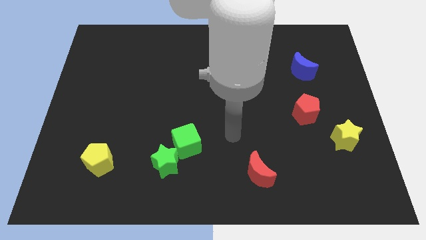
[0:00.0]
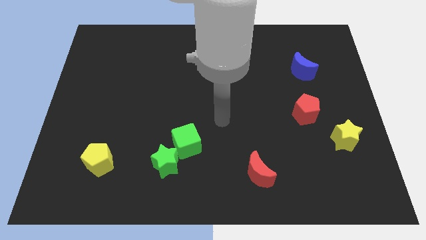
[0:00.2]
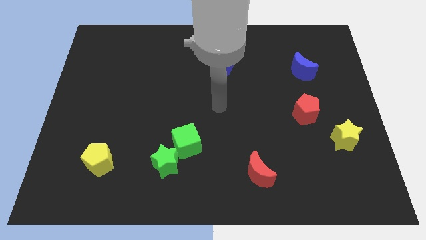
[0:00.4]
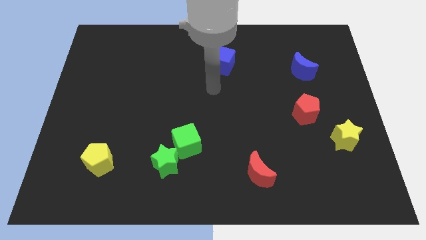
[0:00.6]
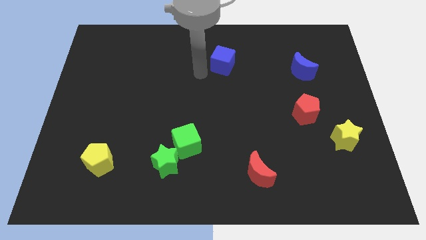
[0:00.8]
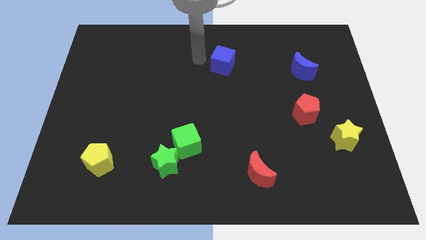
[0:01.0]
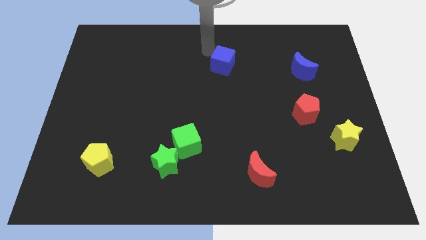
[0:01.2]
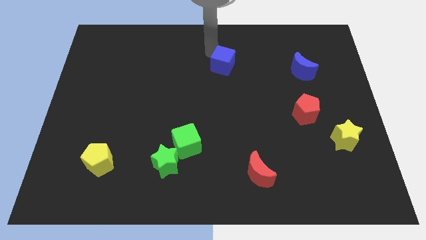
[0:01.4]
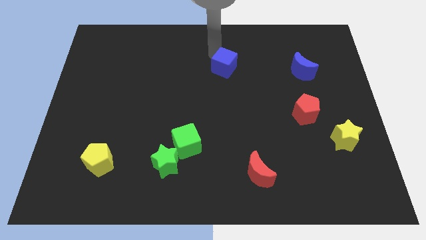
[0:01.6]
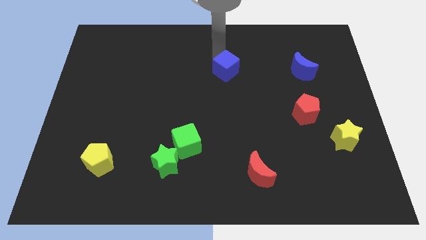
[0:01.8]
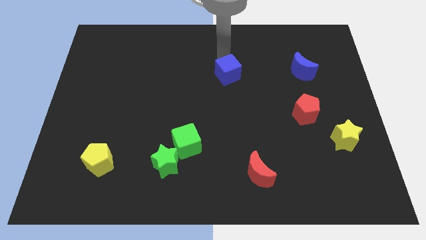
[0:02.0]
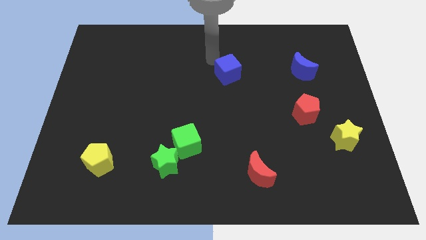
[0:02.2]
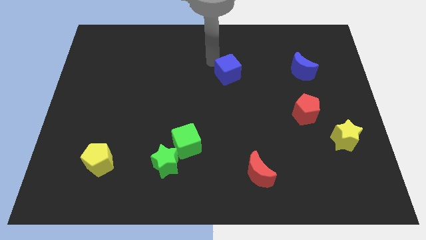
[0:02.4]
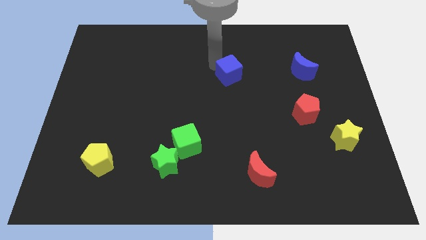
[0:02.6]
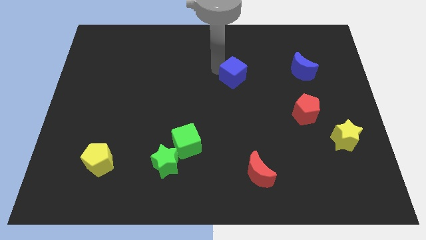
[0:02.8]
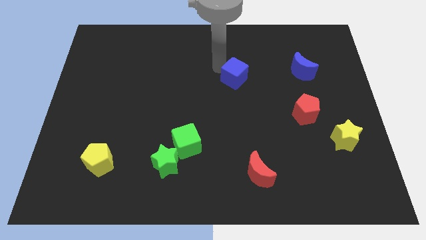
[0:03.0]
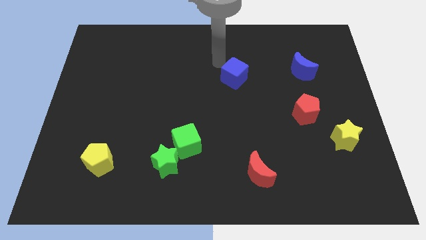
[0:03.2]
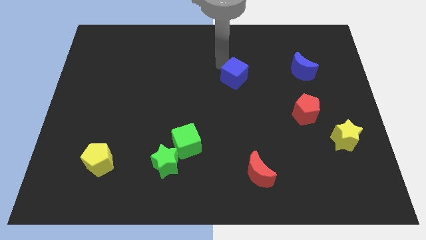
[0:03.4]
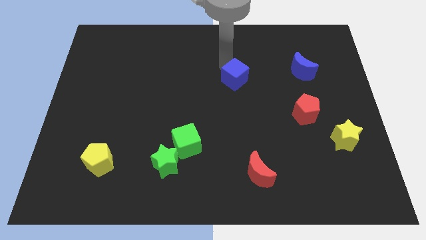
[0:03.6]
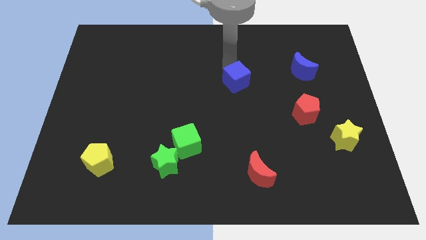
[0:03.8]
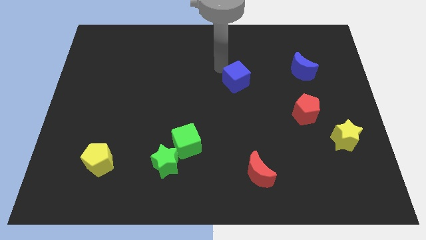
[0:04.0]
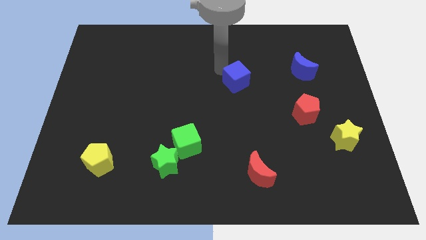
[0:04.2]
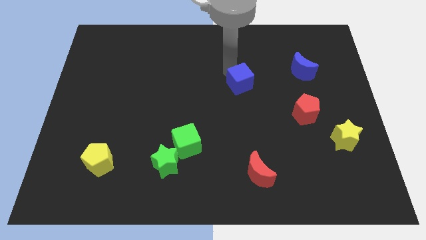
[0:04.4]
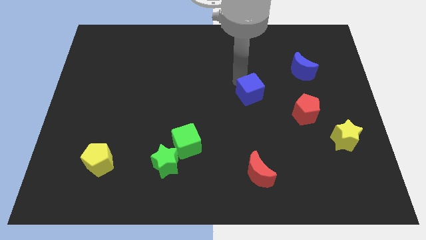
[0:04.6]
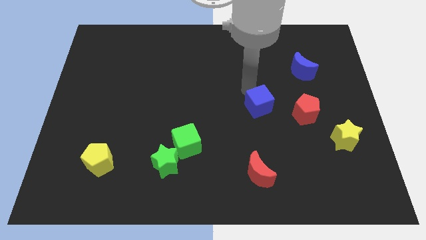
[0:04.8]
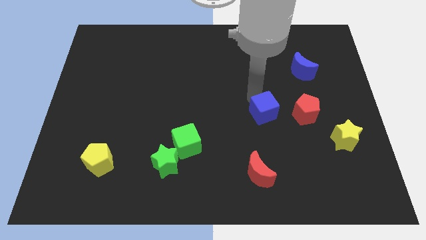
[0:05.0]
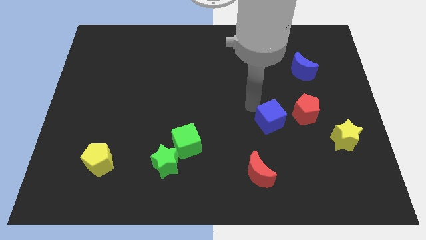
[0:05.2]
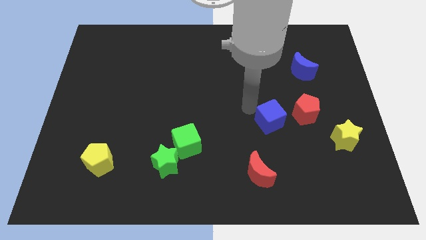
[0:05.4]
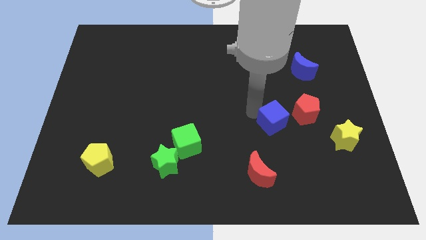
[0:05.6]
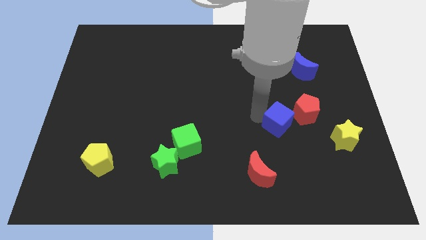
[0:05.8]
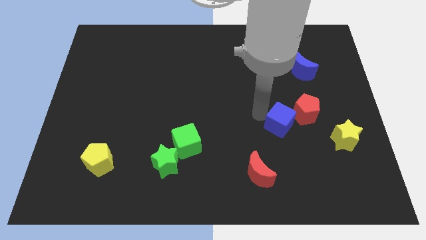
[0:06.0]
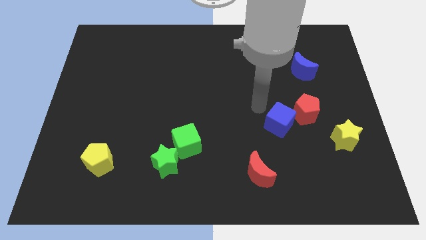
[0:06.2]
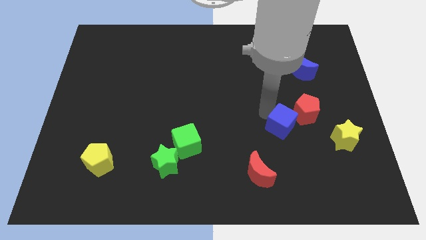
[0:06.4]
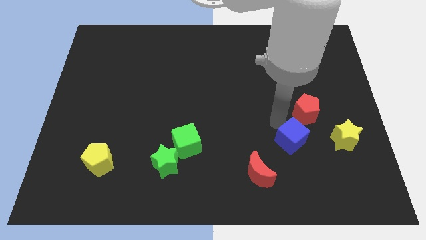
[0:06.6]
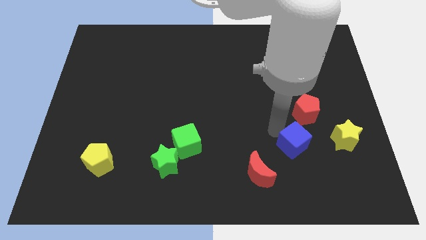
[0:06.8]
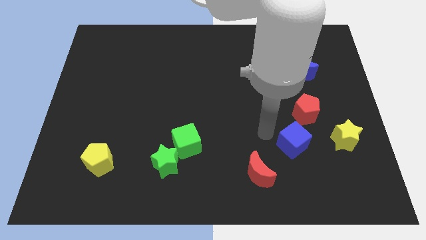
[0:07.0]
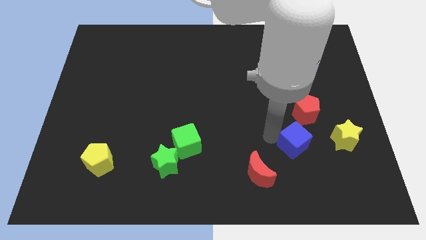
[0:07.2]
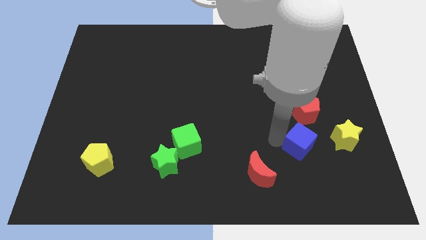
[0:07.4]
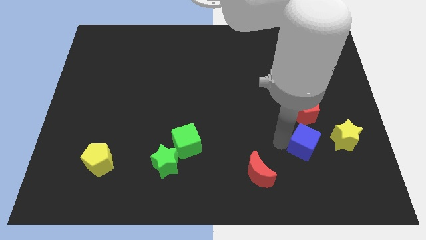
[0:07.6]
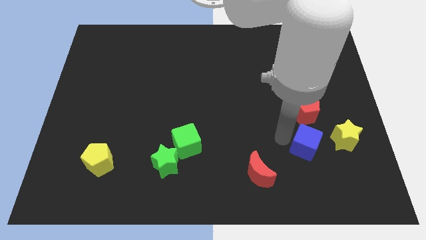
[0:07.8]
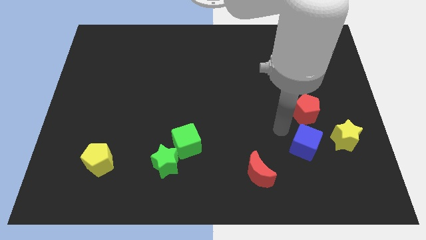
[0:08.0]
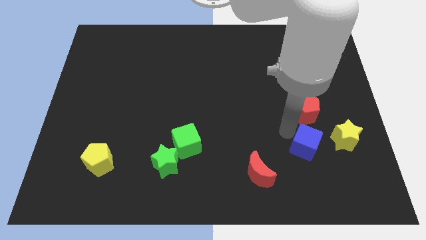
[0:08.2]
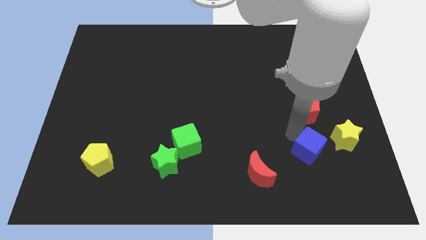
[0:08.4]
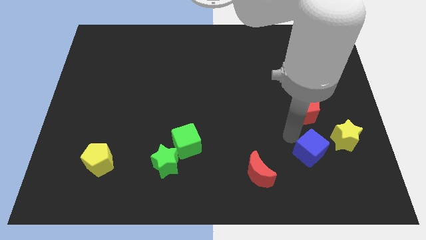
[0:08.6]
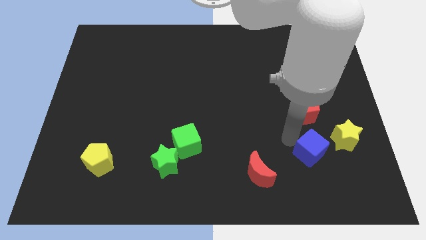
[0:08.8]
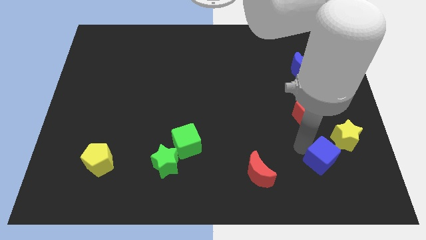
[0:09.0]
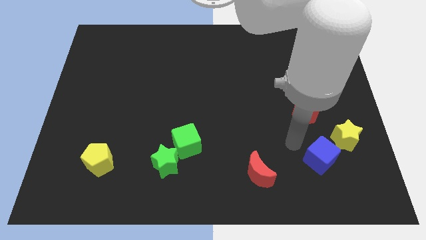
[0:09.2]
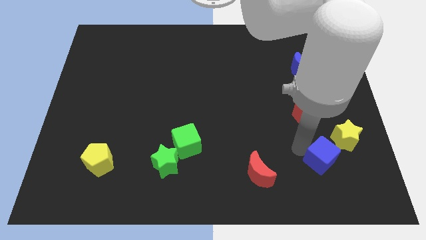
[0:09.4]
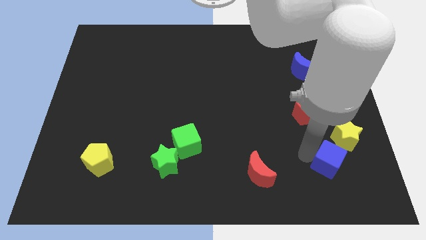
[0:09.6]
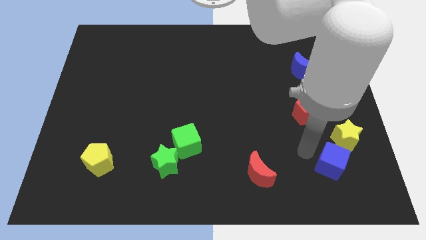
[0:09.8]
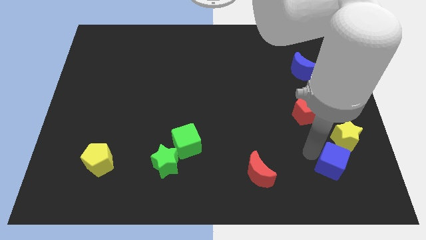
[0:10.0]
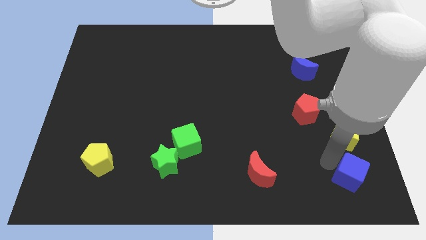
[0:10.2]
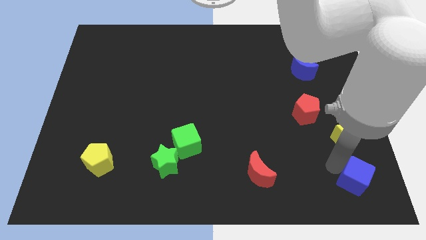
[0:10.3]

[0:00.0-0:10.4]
put the blue cube to the lower right corner

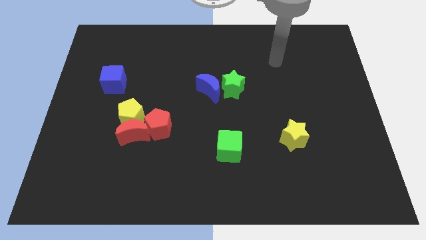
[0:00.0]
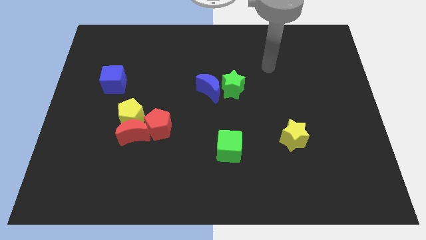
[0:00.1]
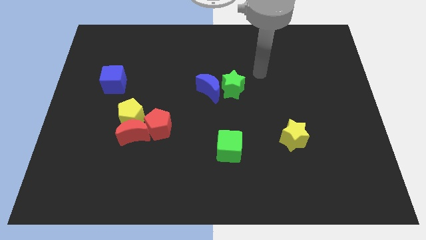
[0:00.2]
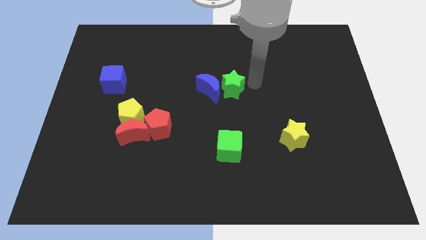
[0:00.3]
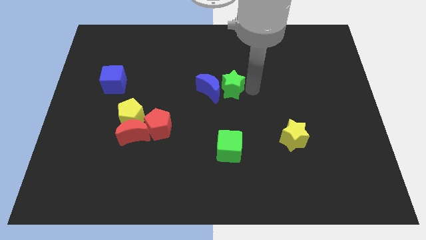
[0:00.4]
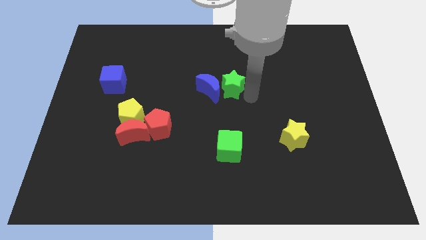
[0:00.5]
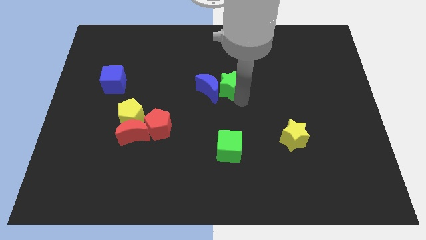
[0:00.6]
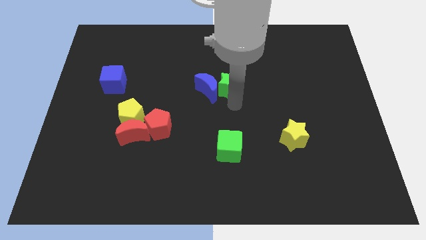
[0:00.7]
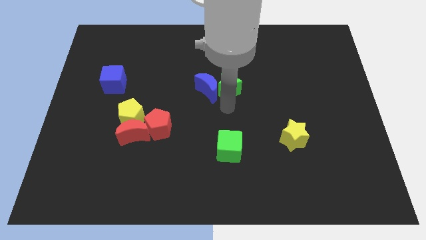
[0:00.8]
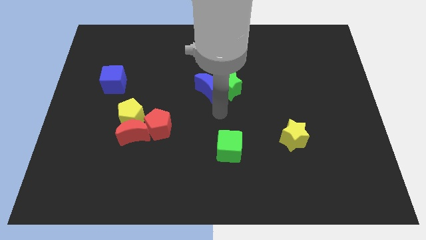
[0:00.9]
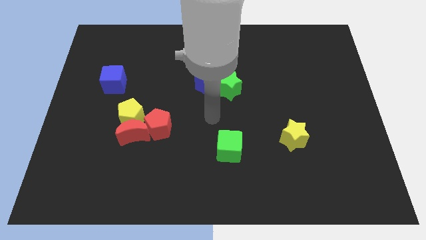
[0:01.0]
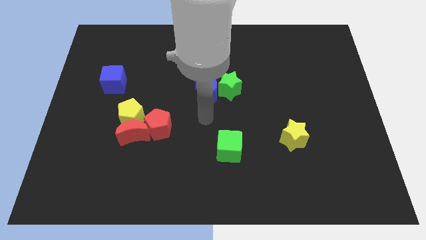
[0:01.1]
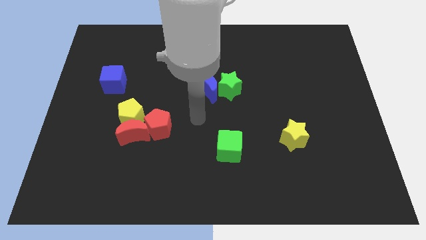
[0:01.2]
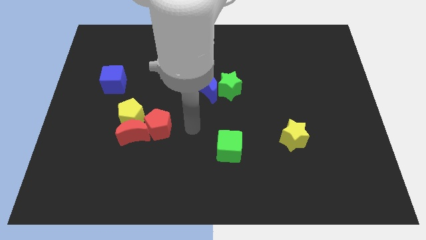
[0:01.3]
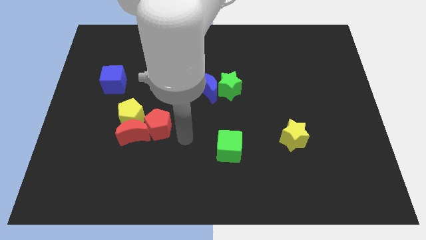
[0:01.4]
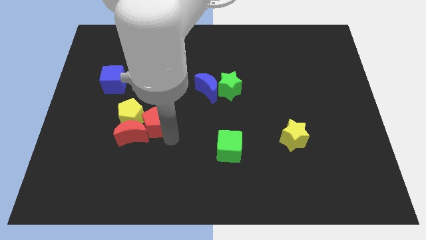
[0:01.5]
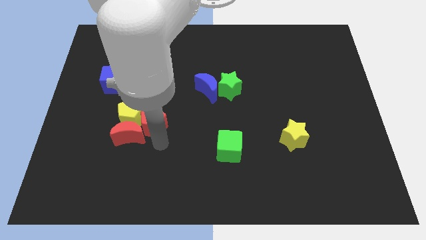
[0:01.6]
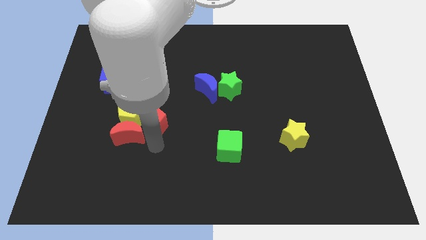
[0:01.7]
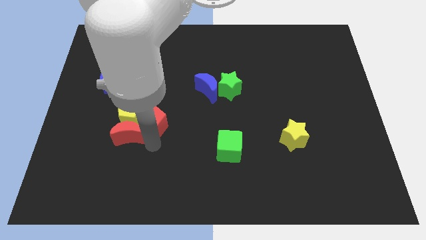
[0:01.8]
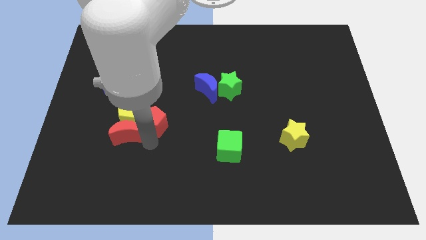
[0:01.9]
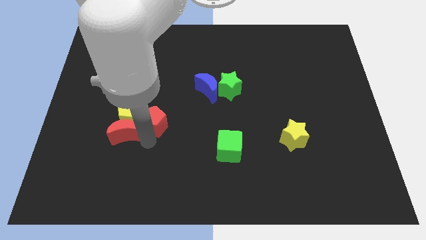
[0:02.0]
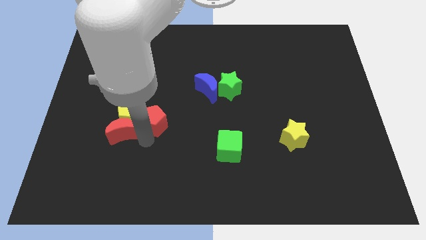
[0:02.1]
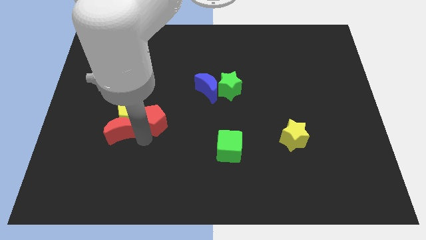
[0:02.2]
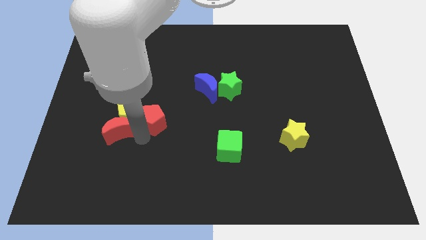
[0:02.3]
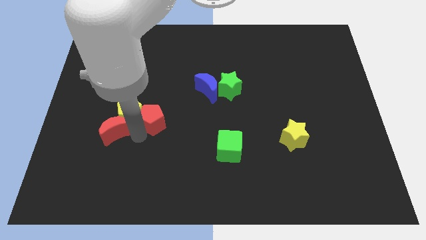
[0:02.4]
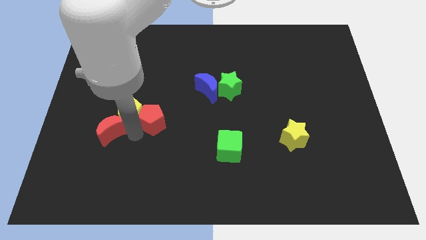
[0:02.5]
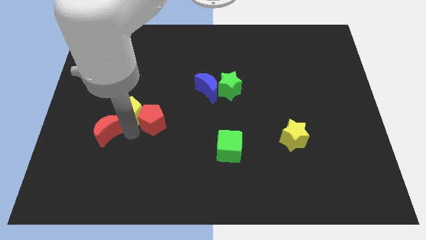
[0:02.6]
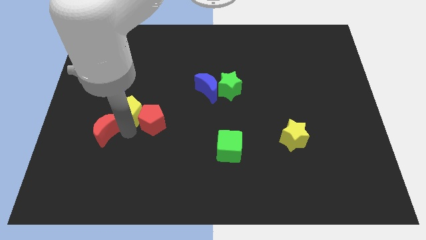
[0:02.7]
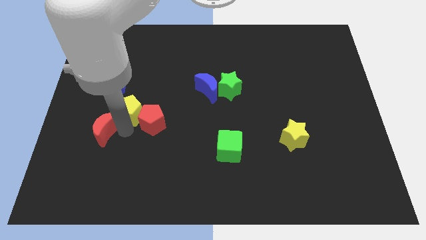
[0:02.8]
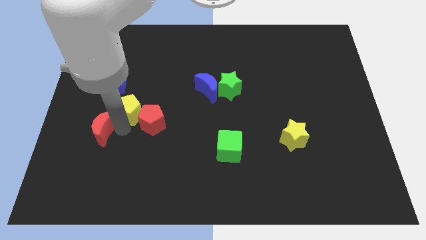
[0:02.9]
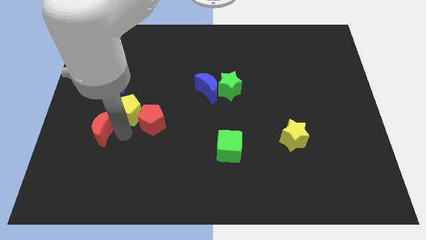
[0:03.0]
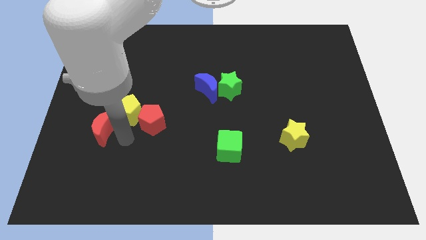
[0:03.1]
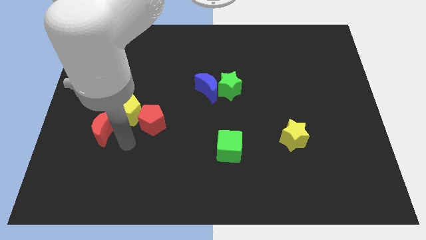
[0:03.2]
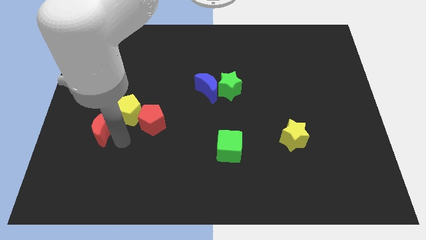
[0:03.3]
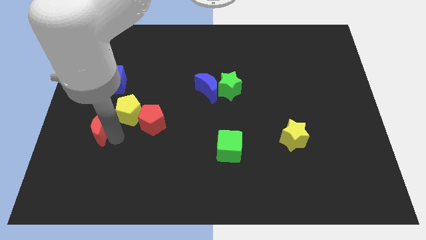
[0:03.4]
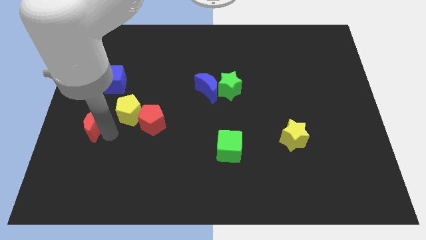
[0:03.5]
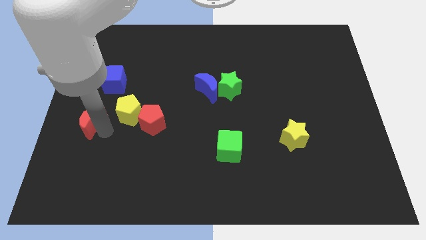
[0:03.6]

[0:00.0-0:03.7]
push the red moon to the left side
